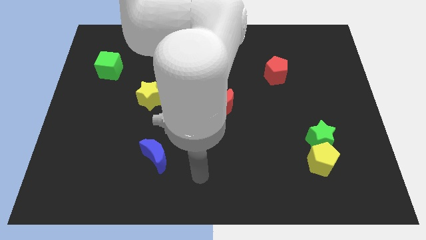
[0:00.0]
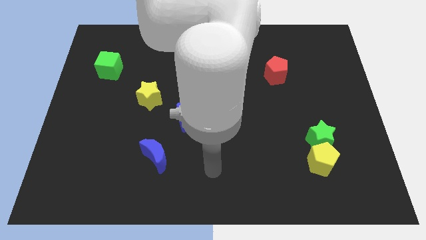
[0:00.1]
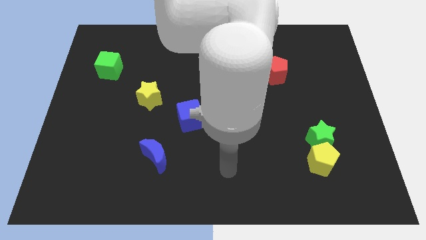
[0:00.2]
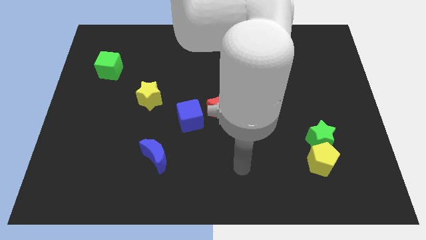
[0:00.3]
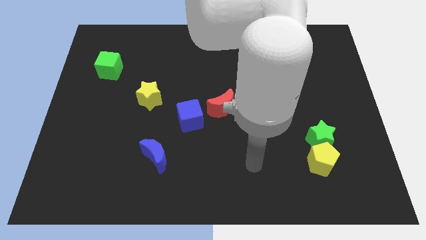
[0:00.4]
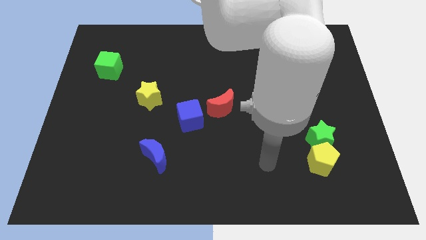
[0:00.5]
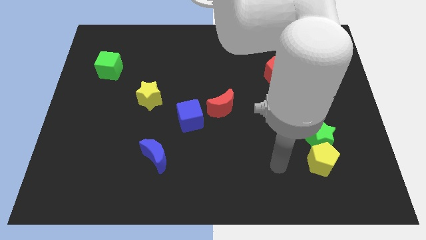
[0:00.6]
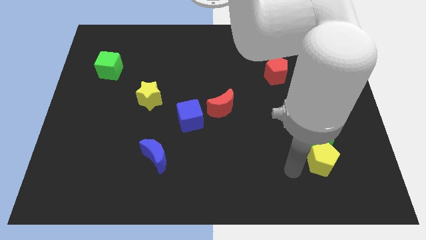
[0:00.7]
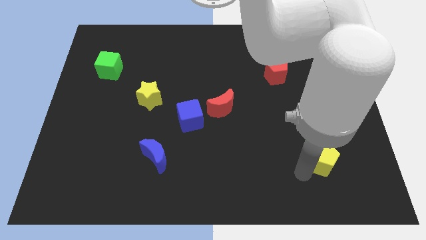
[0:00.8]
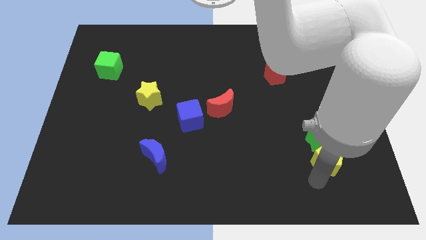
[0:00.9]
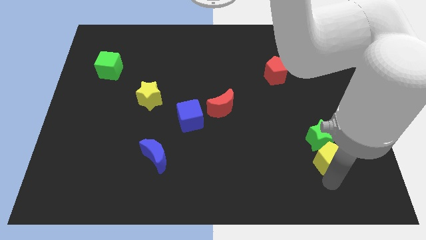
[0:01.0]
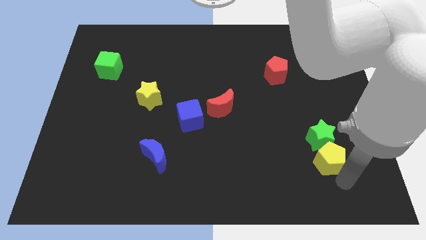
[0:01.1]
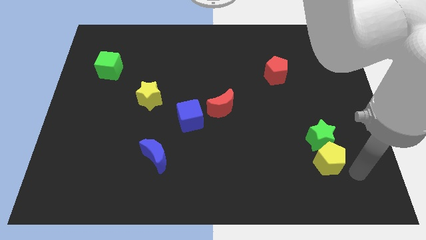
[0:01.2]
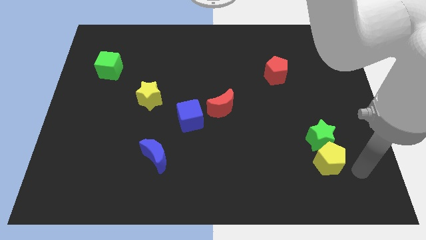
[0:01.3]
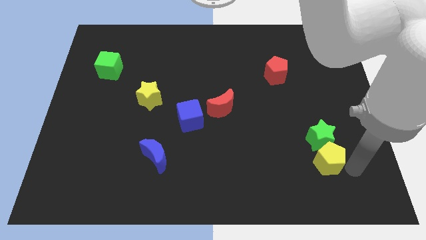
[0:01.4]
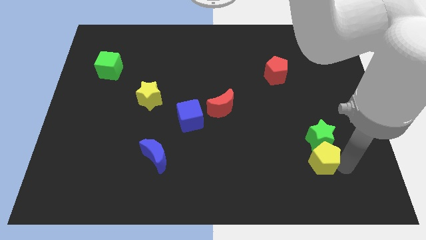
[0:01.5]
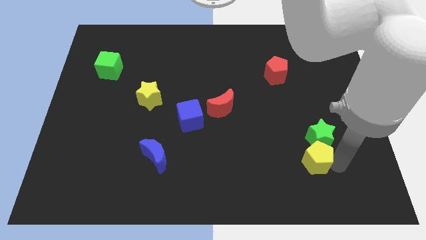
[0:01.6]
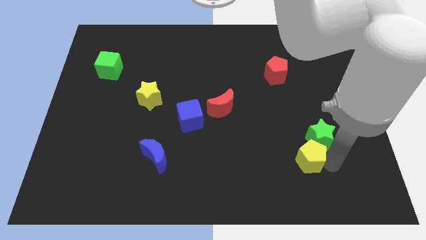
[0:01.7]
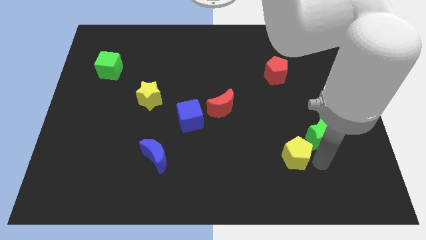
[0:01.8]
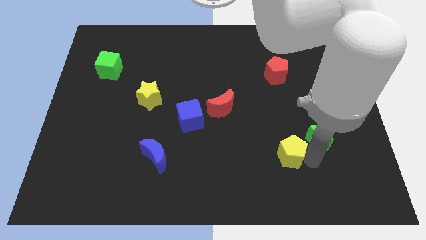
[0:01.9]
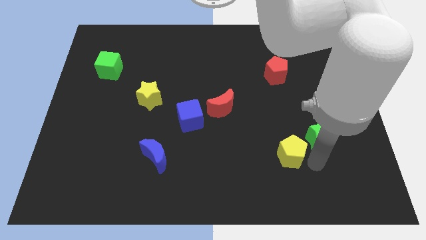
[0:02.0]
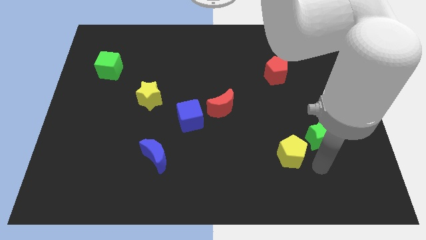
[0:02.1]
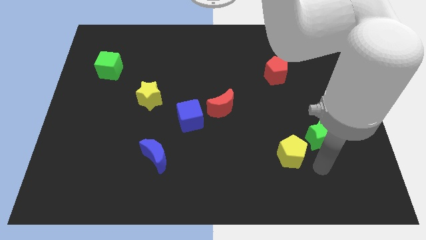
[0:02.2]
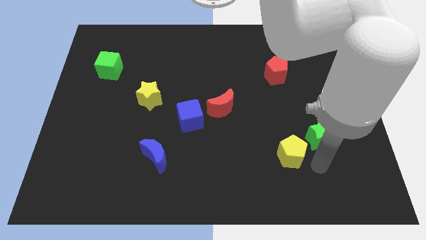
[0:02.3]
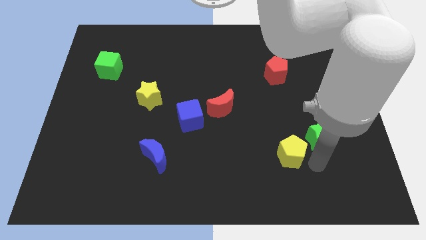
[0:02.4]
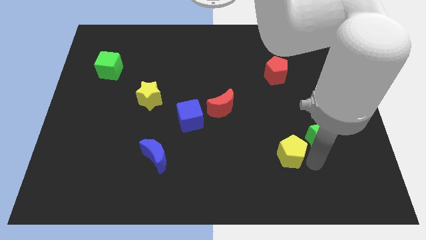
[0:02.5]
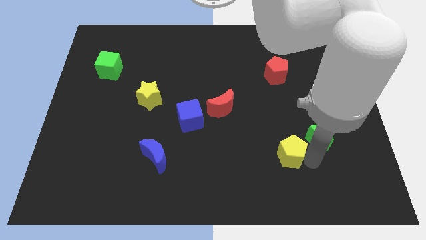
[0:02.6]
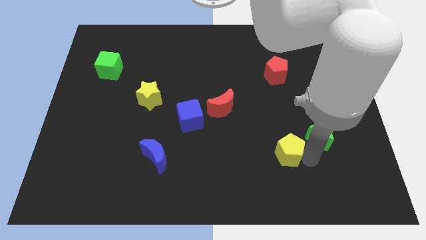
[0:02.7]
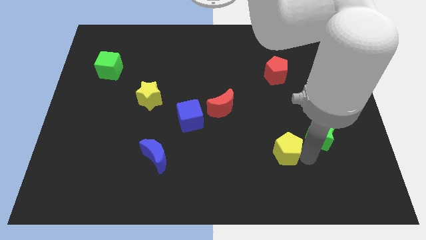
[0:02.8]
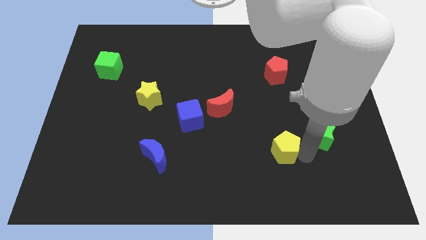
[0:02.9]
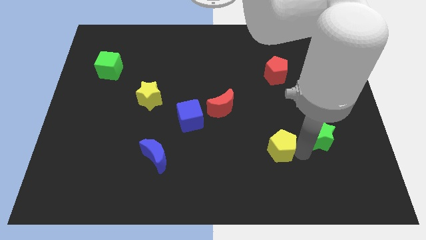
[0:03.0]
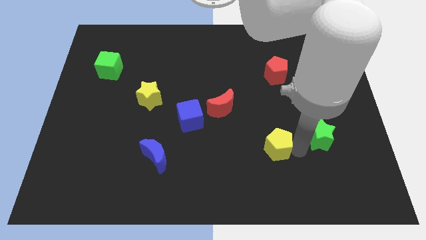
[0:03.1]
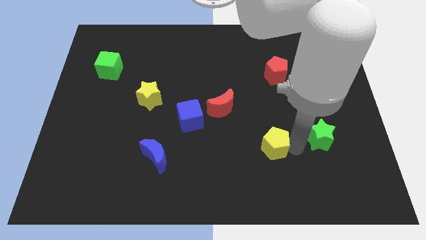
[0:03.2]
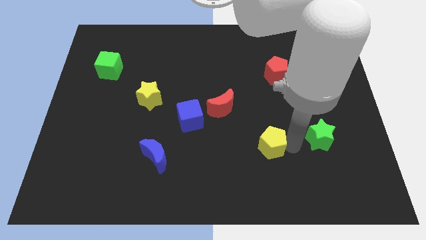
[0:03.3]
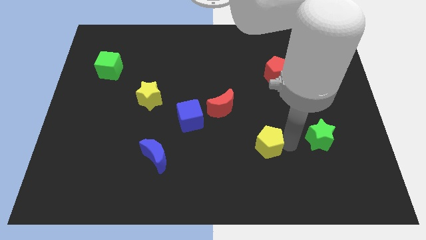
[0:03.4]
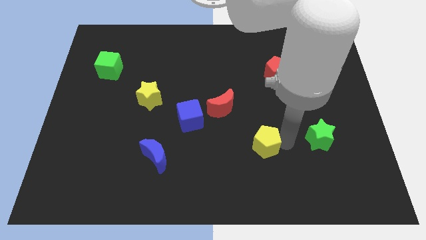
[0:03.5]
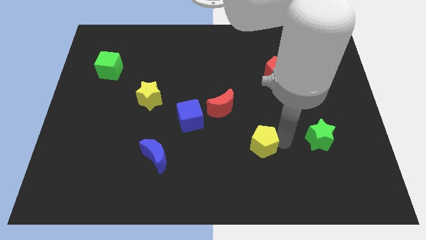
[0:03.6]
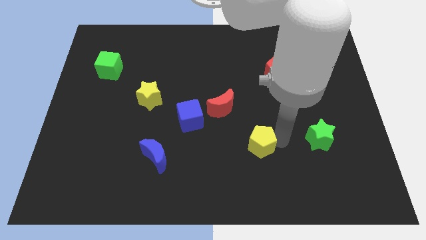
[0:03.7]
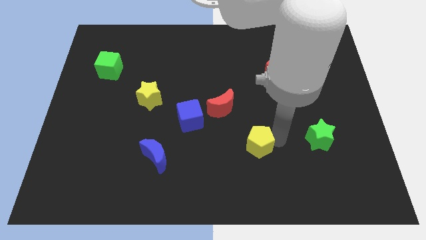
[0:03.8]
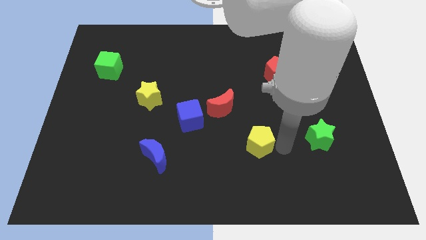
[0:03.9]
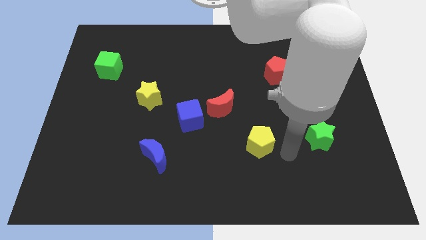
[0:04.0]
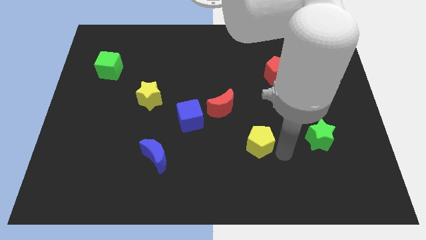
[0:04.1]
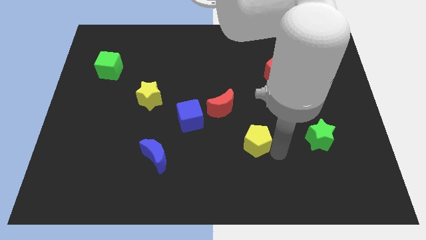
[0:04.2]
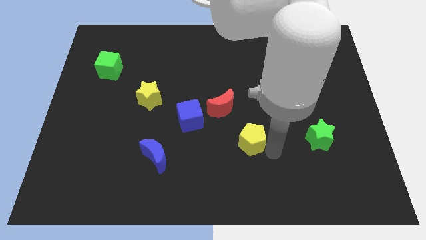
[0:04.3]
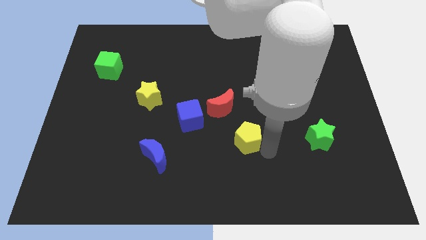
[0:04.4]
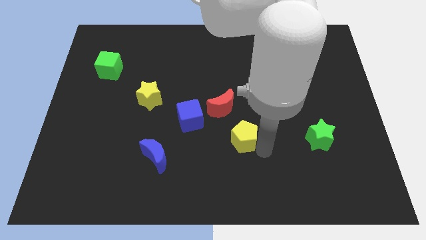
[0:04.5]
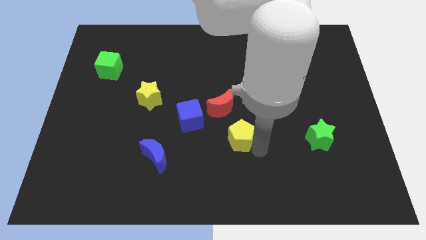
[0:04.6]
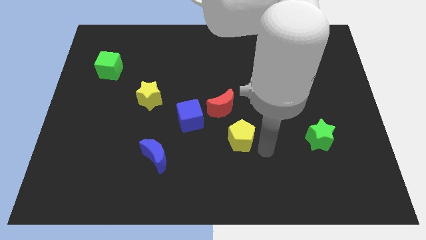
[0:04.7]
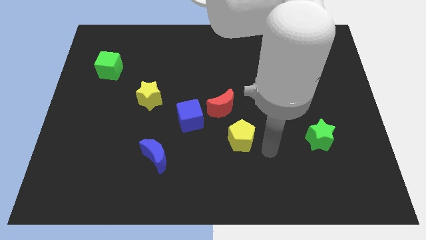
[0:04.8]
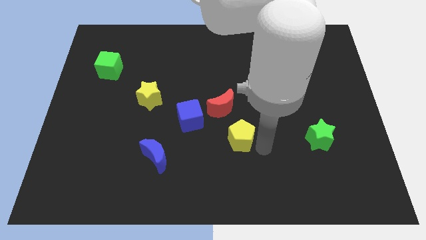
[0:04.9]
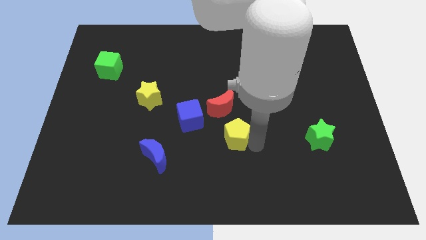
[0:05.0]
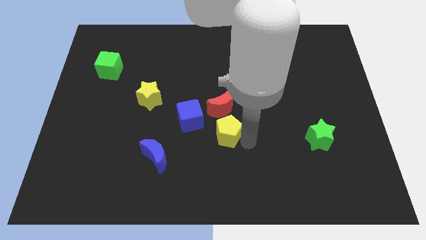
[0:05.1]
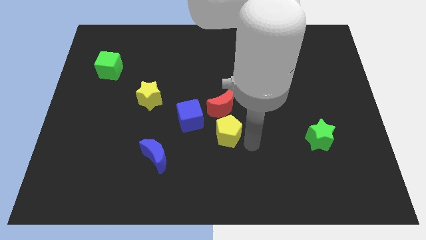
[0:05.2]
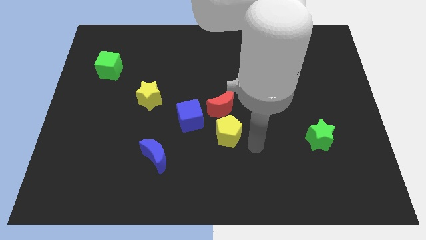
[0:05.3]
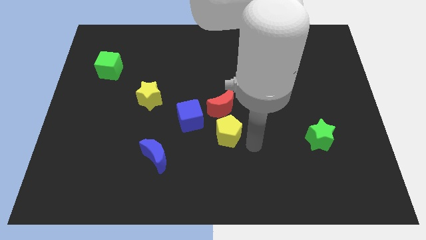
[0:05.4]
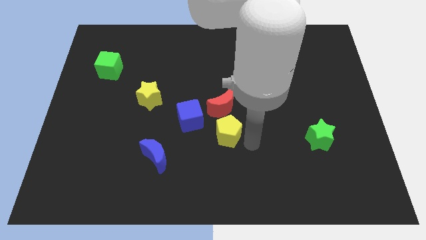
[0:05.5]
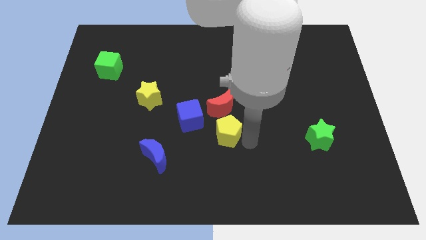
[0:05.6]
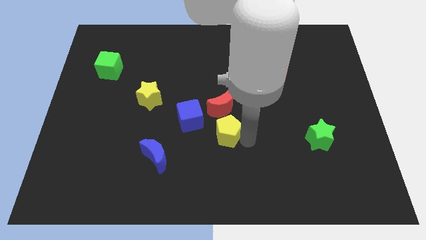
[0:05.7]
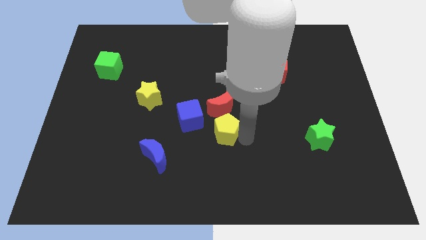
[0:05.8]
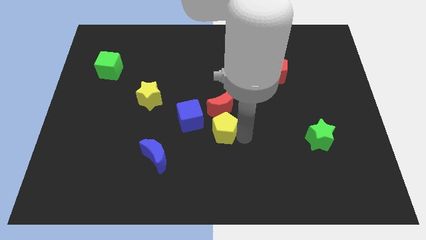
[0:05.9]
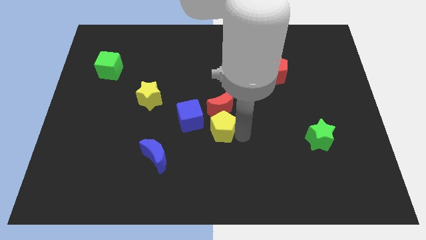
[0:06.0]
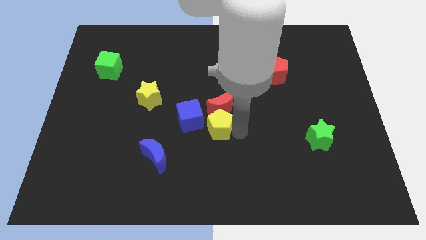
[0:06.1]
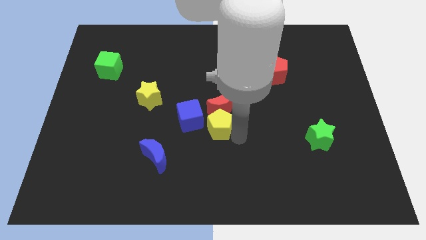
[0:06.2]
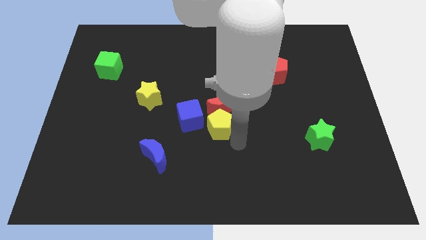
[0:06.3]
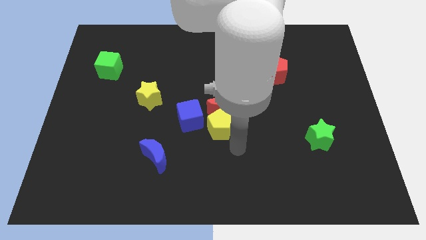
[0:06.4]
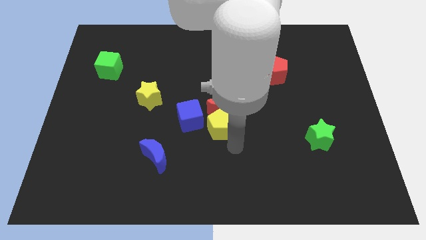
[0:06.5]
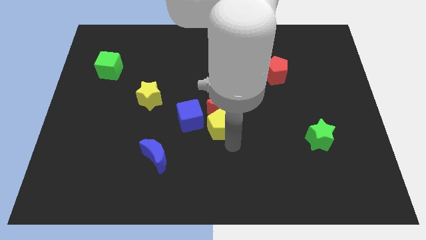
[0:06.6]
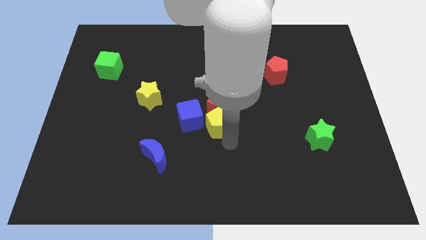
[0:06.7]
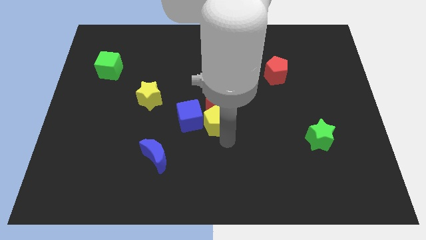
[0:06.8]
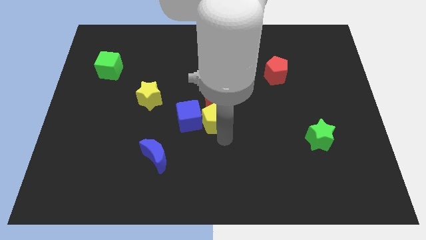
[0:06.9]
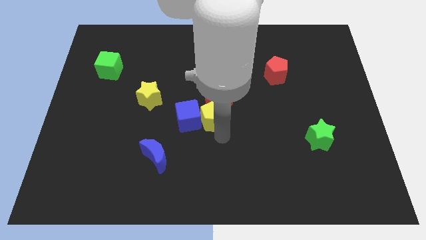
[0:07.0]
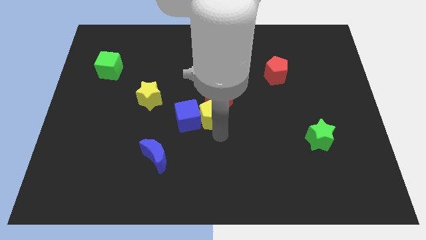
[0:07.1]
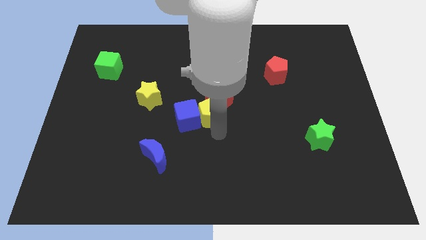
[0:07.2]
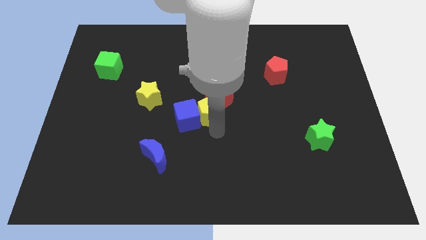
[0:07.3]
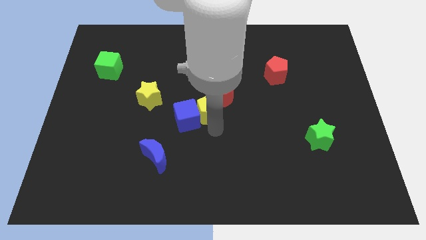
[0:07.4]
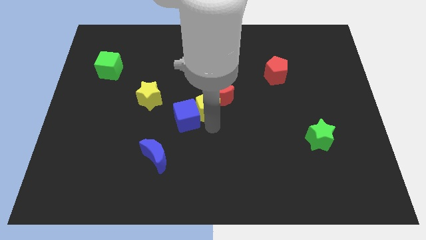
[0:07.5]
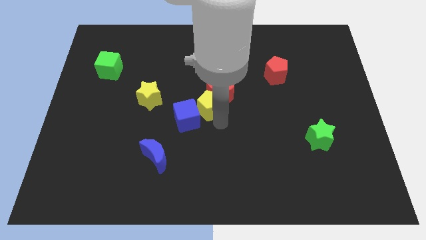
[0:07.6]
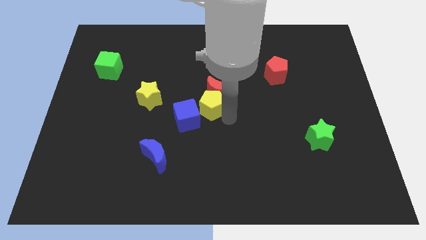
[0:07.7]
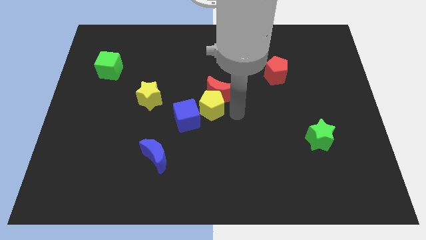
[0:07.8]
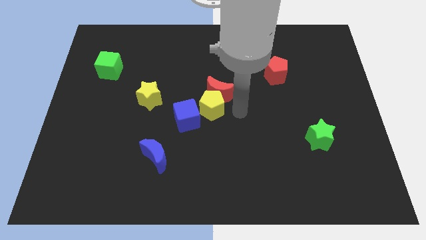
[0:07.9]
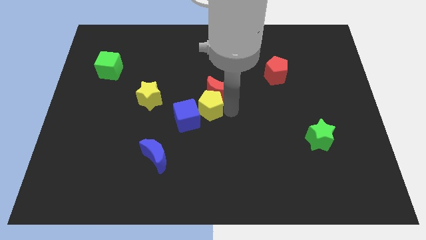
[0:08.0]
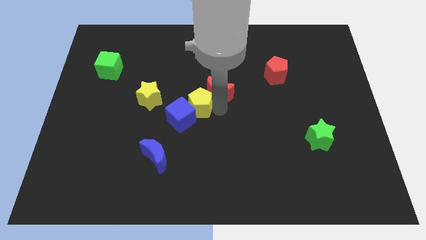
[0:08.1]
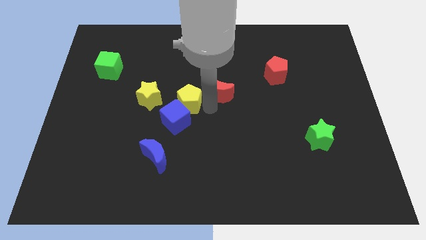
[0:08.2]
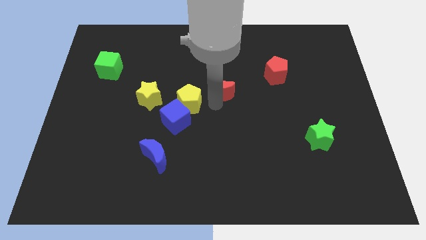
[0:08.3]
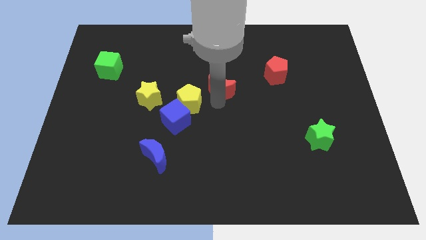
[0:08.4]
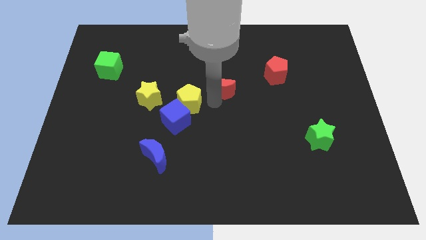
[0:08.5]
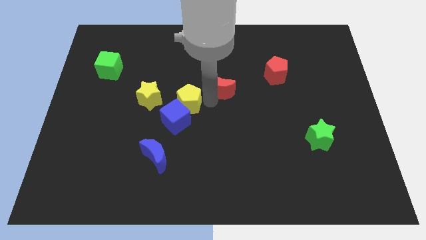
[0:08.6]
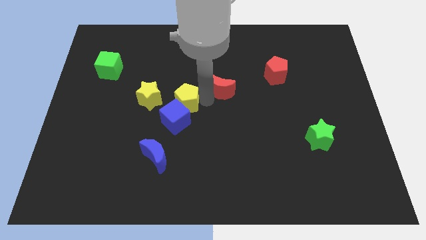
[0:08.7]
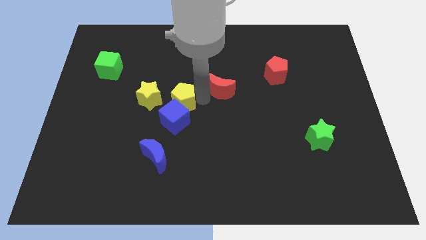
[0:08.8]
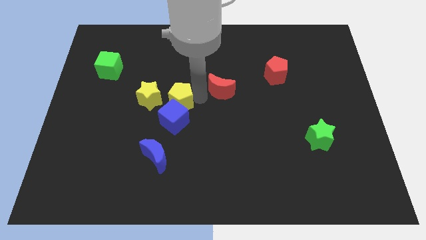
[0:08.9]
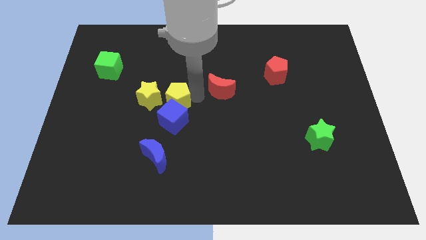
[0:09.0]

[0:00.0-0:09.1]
move the yellow pentagon diagonally up and to the left of the blue cube
